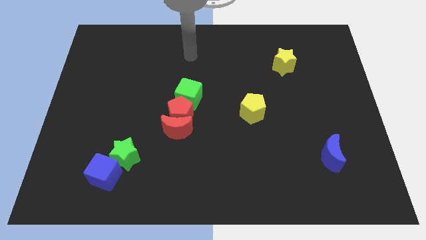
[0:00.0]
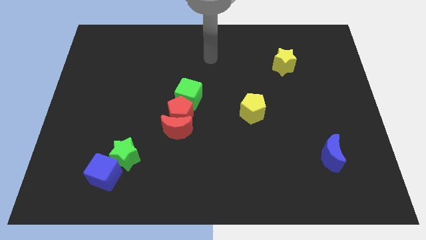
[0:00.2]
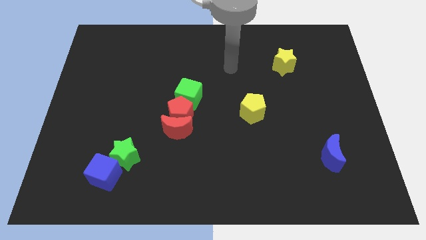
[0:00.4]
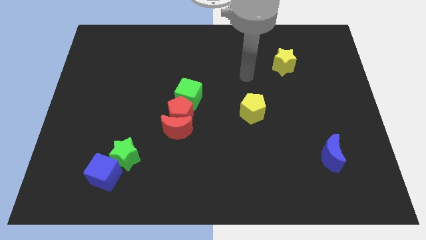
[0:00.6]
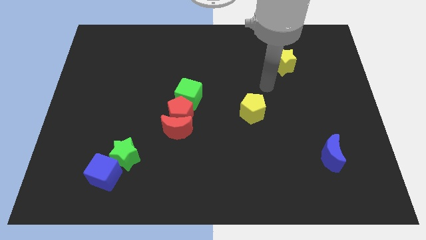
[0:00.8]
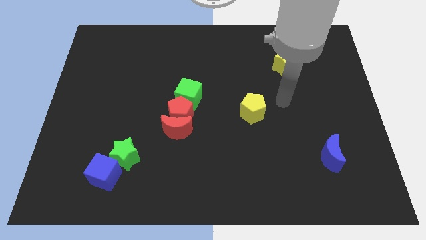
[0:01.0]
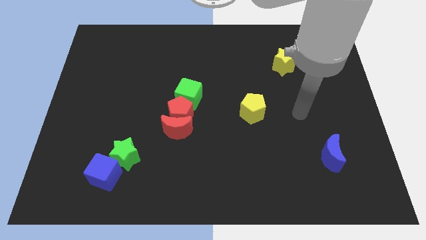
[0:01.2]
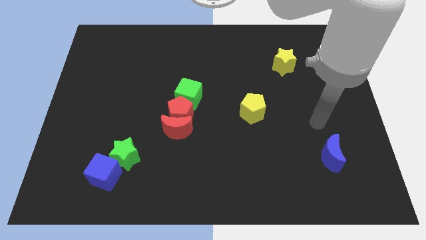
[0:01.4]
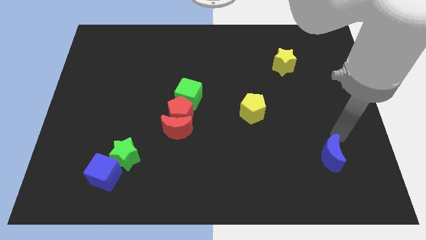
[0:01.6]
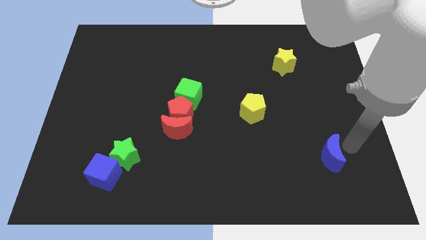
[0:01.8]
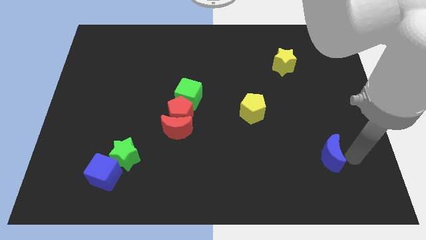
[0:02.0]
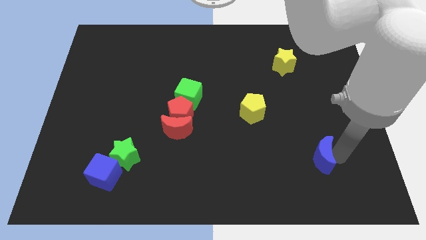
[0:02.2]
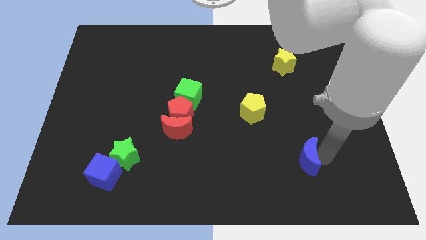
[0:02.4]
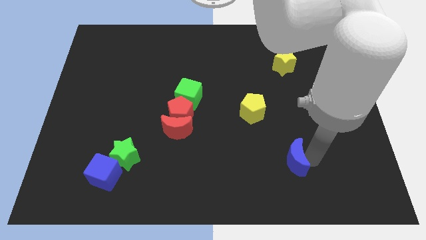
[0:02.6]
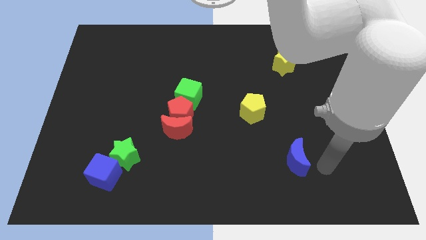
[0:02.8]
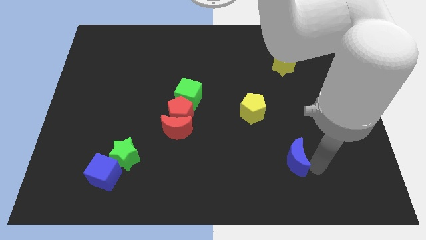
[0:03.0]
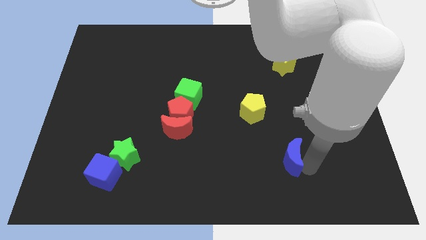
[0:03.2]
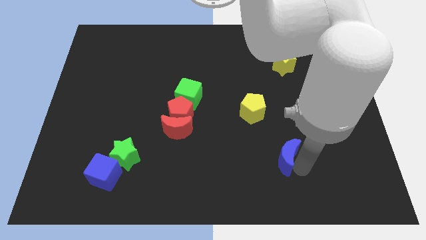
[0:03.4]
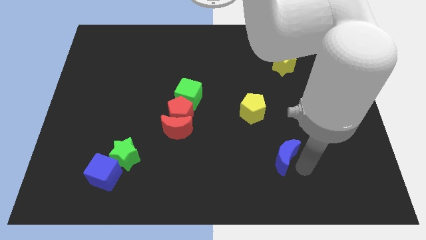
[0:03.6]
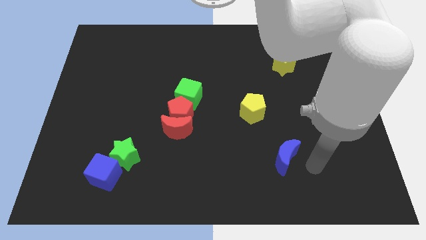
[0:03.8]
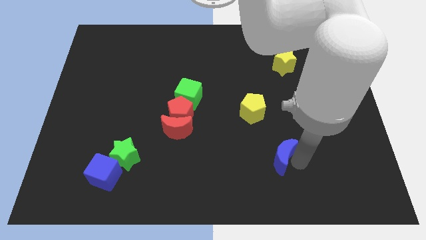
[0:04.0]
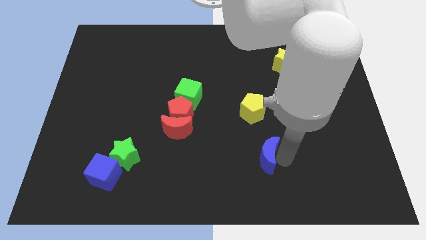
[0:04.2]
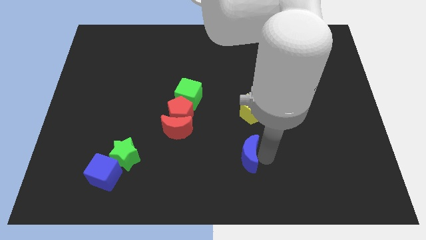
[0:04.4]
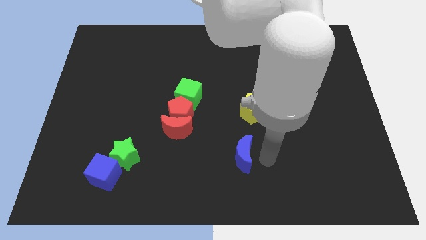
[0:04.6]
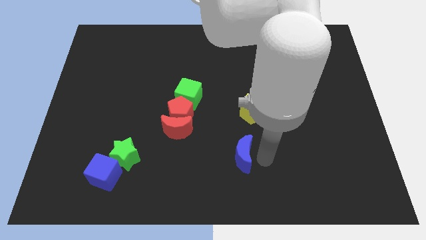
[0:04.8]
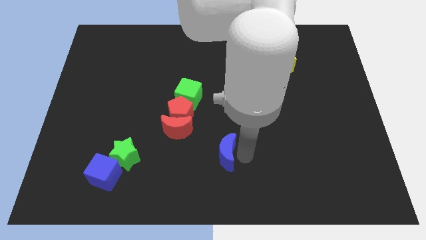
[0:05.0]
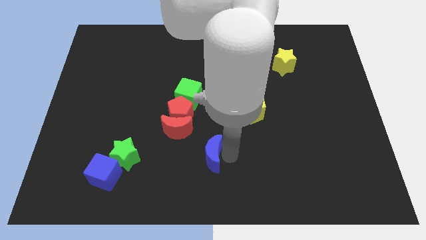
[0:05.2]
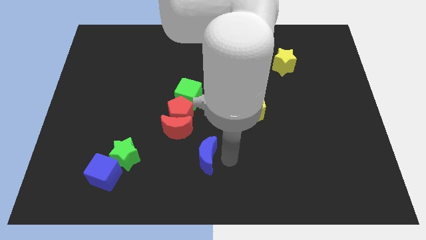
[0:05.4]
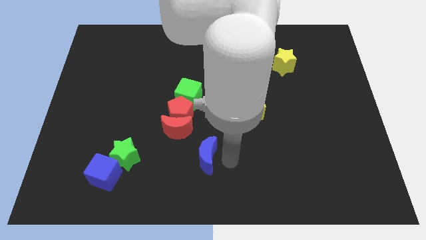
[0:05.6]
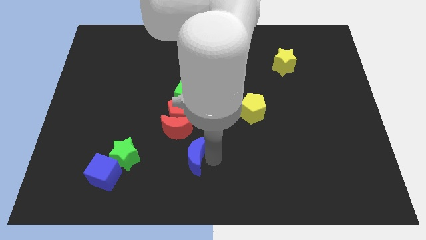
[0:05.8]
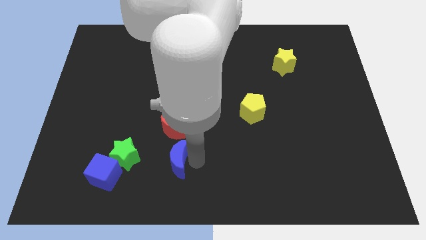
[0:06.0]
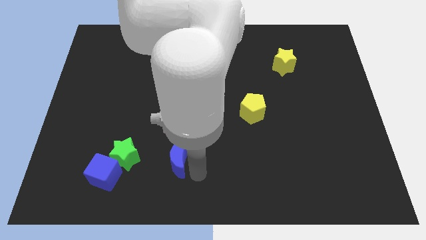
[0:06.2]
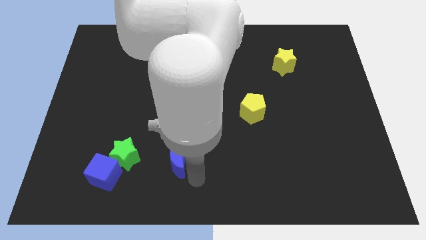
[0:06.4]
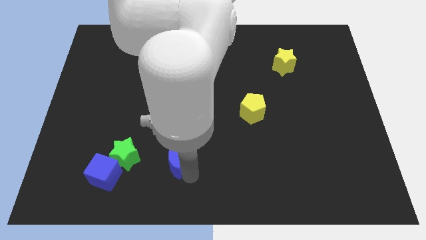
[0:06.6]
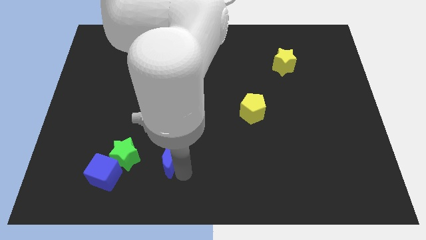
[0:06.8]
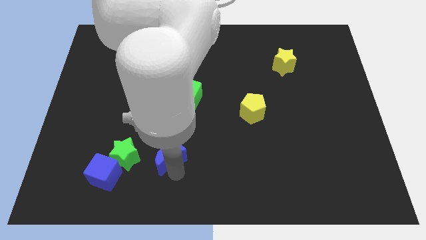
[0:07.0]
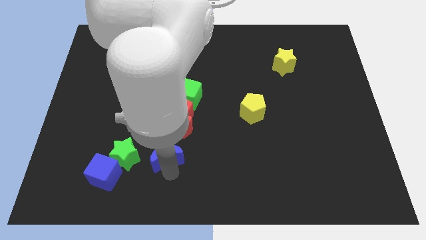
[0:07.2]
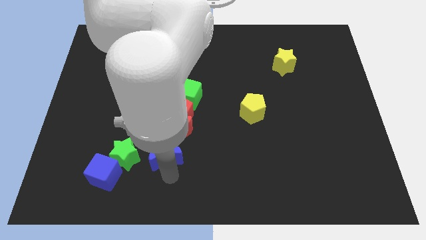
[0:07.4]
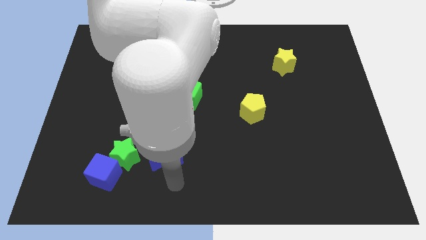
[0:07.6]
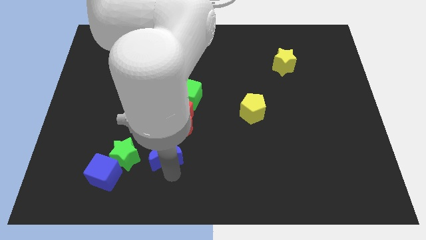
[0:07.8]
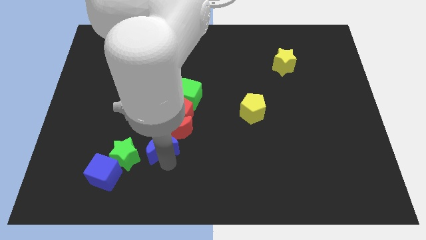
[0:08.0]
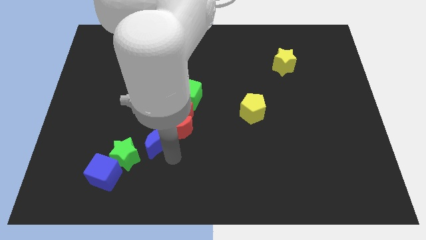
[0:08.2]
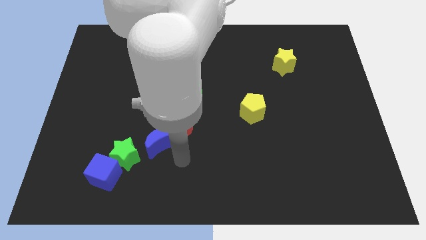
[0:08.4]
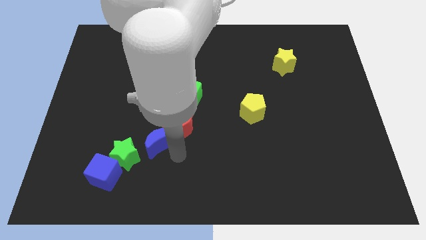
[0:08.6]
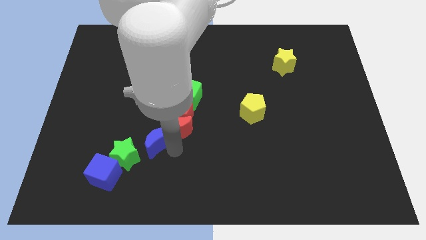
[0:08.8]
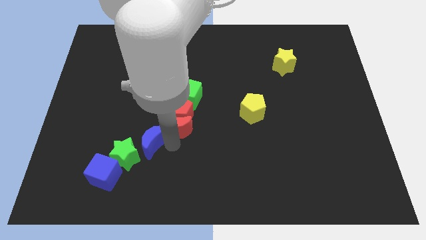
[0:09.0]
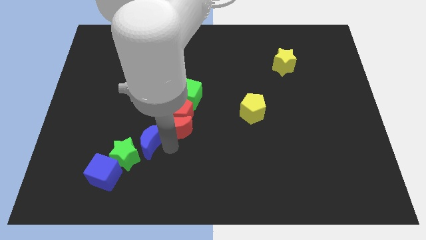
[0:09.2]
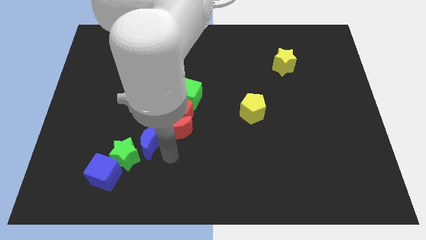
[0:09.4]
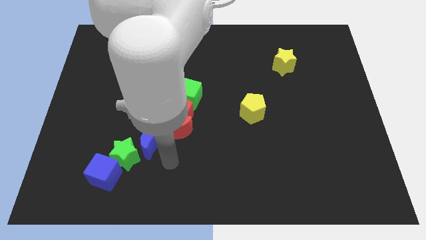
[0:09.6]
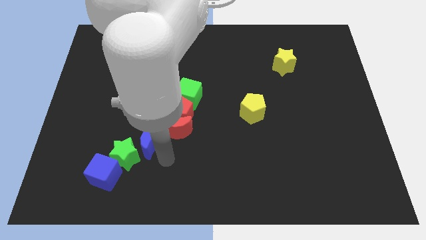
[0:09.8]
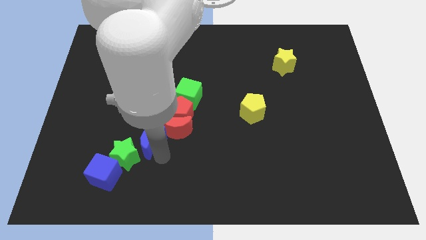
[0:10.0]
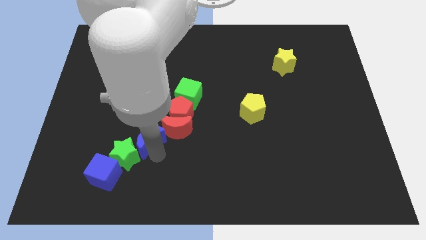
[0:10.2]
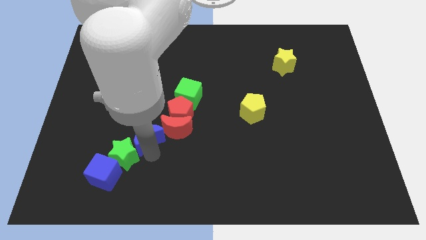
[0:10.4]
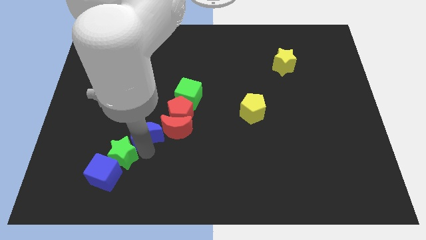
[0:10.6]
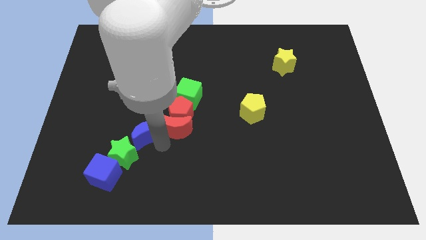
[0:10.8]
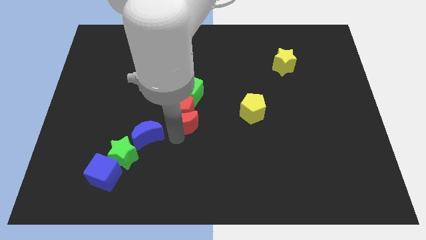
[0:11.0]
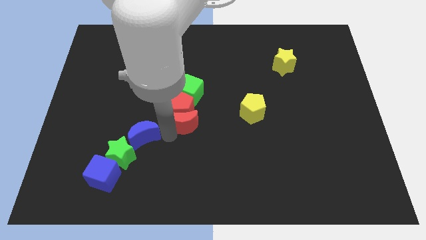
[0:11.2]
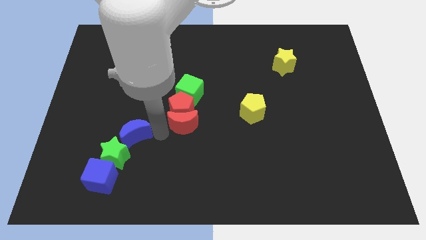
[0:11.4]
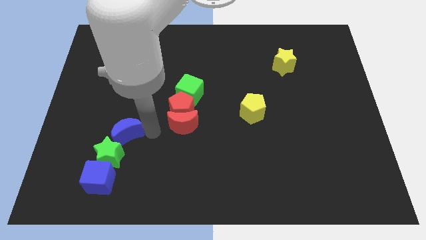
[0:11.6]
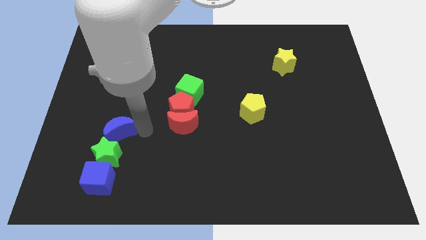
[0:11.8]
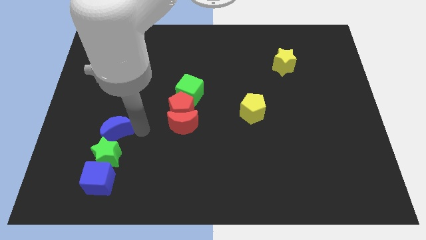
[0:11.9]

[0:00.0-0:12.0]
push the blue moon diagonally up and to the left of the green star

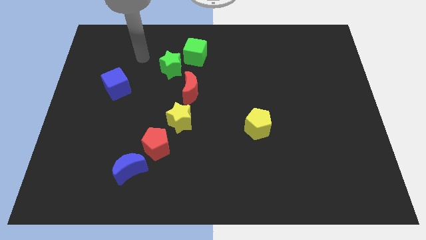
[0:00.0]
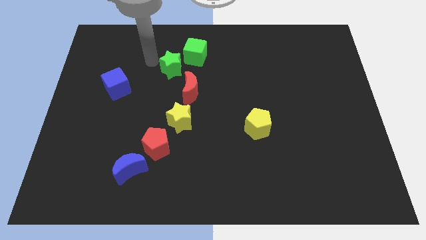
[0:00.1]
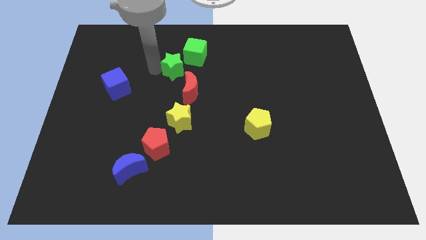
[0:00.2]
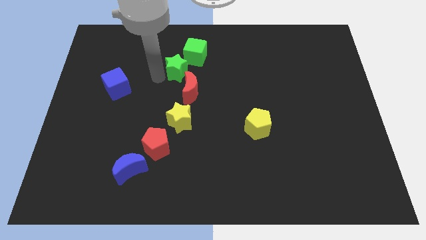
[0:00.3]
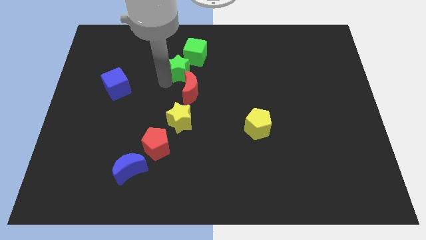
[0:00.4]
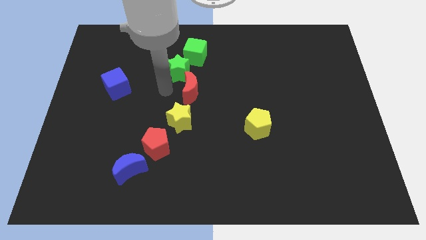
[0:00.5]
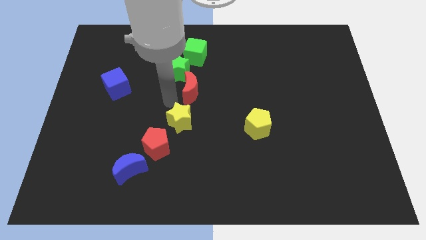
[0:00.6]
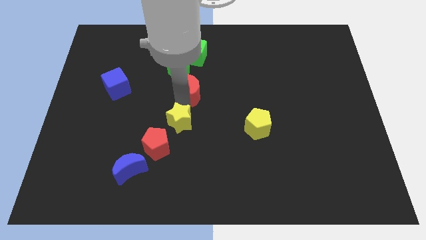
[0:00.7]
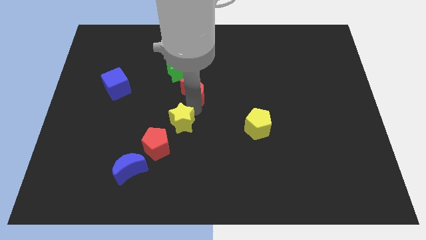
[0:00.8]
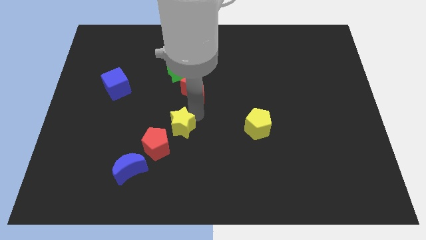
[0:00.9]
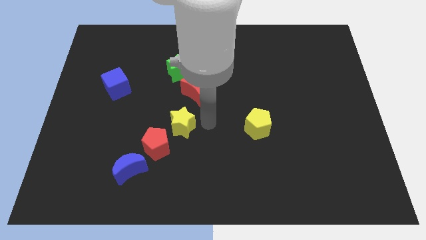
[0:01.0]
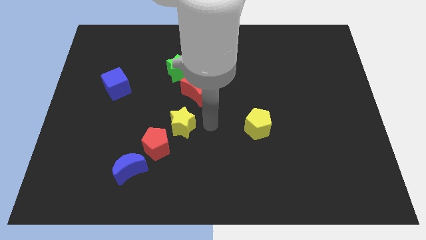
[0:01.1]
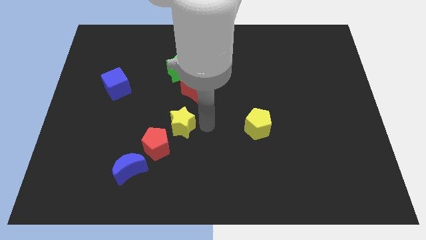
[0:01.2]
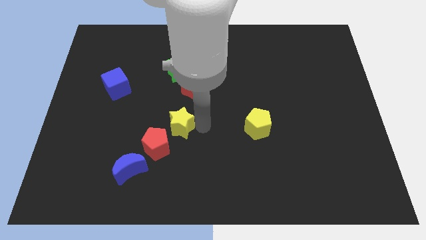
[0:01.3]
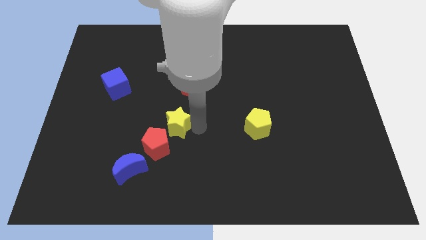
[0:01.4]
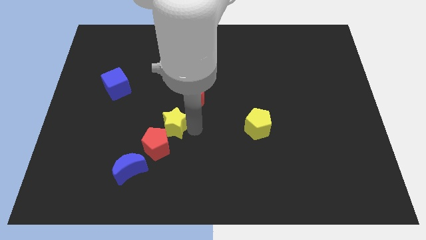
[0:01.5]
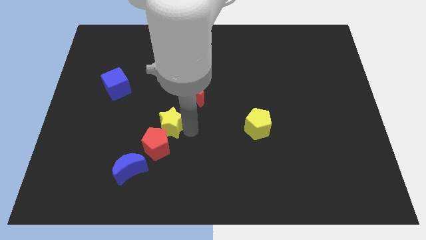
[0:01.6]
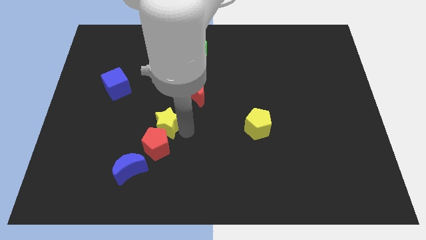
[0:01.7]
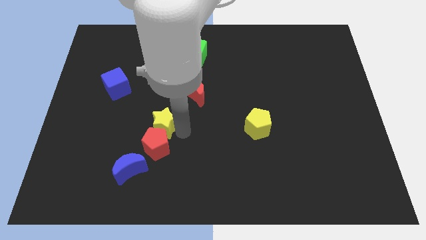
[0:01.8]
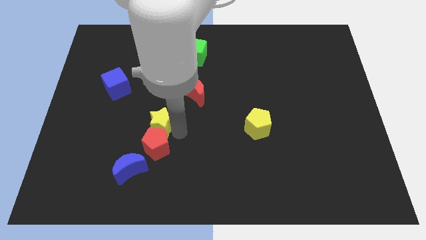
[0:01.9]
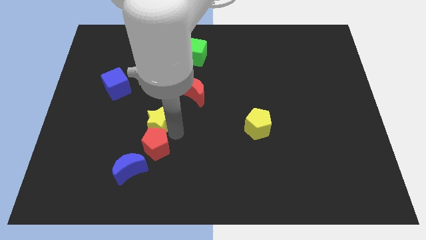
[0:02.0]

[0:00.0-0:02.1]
slide the yellow star to the top of the blue moon
